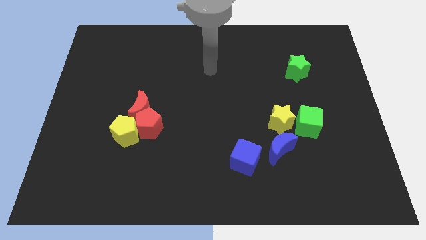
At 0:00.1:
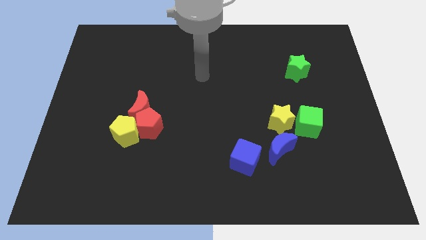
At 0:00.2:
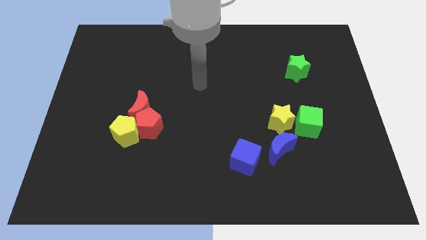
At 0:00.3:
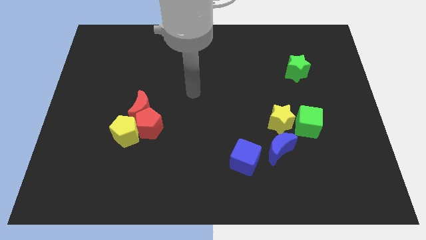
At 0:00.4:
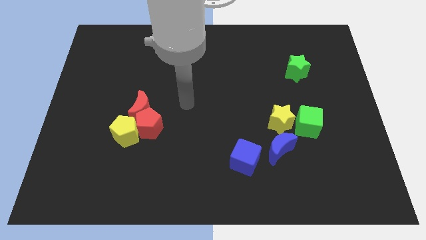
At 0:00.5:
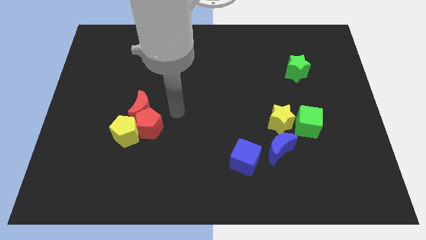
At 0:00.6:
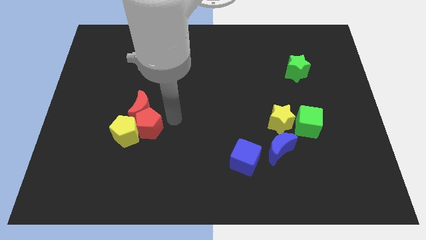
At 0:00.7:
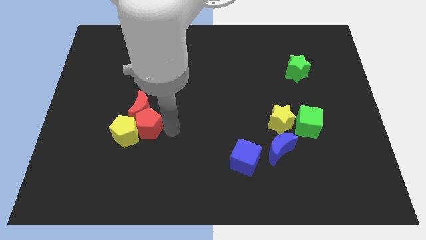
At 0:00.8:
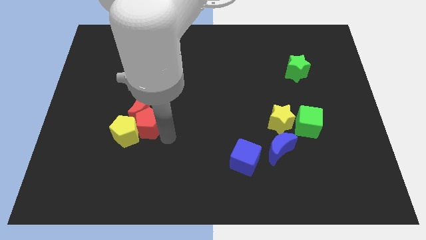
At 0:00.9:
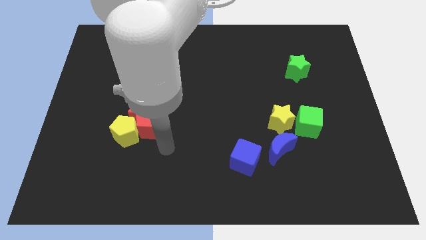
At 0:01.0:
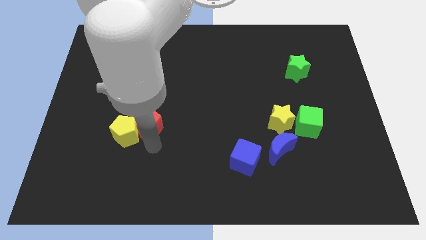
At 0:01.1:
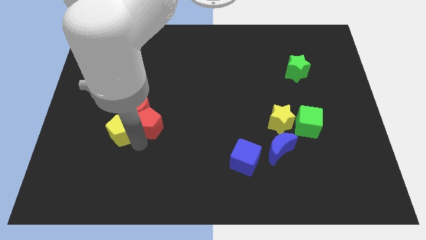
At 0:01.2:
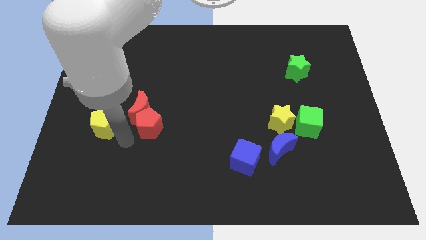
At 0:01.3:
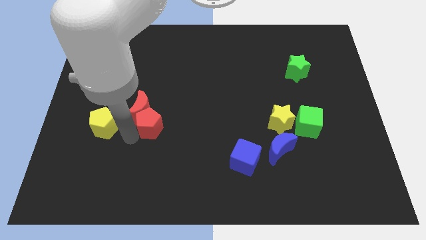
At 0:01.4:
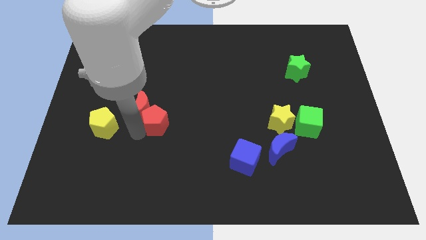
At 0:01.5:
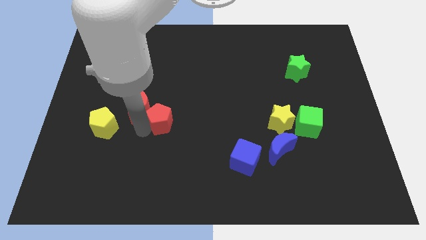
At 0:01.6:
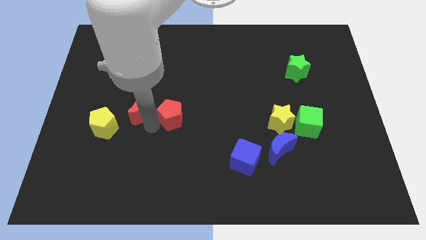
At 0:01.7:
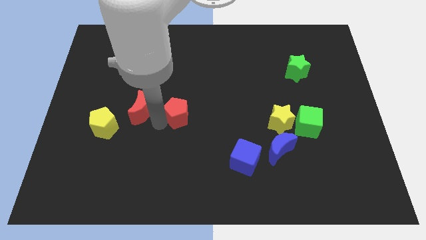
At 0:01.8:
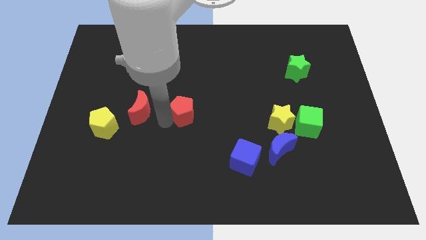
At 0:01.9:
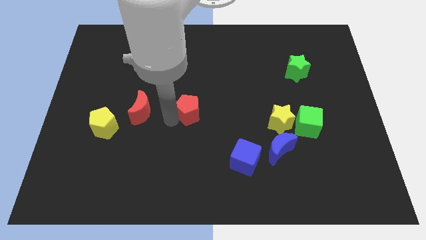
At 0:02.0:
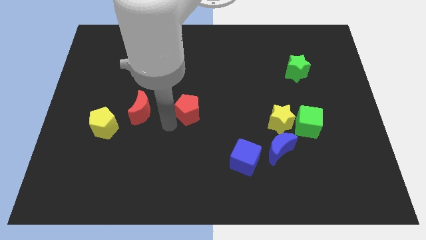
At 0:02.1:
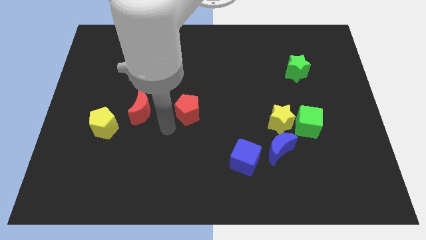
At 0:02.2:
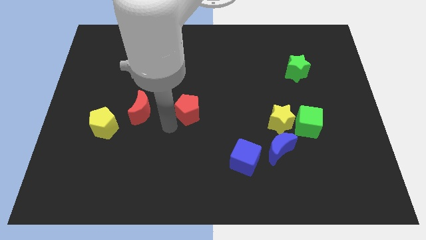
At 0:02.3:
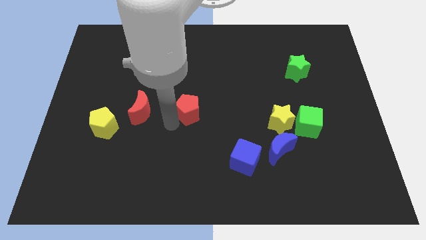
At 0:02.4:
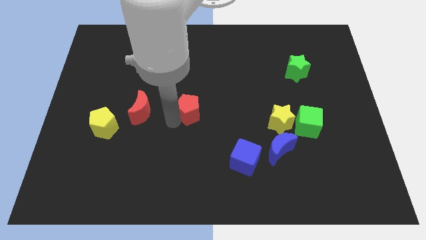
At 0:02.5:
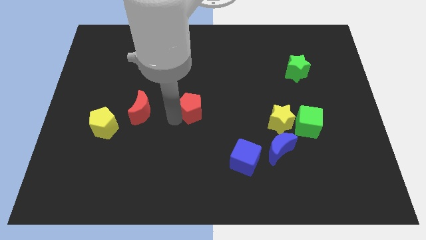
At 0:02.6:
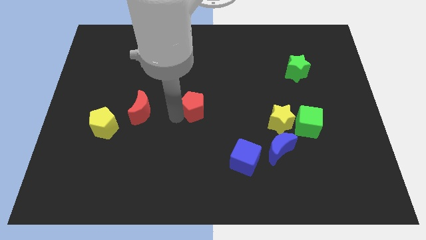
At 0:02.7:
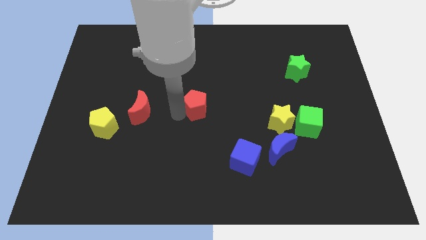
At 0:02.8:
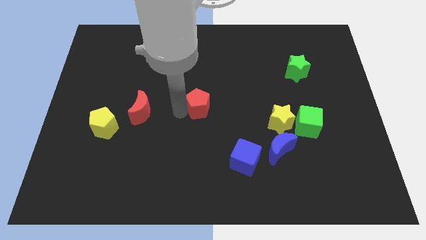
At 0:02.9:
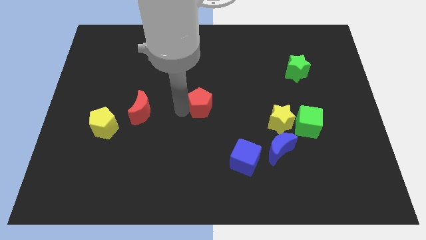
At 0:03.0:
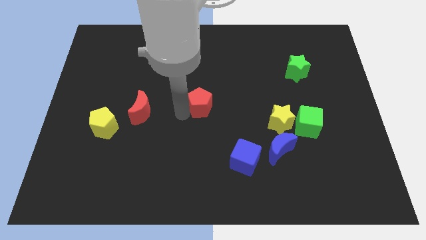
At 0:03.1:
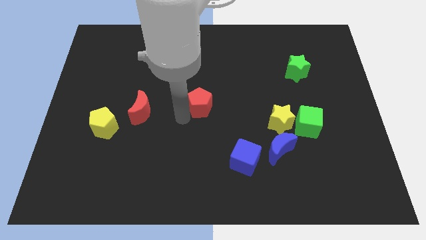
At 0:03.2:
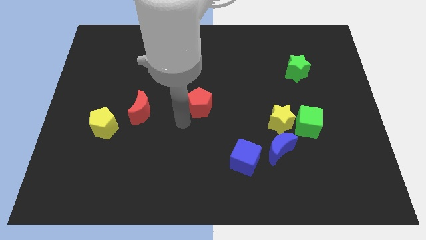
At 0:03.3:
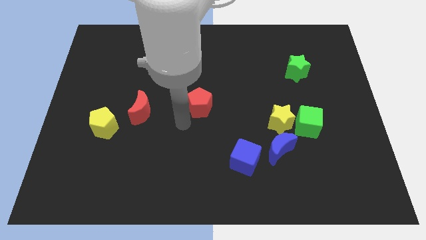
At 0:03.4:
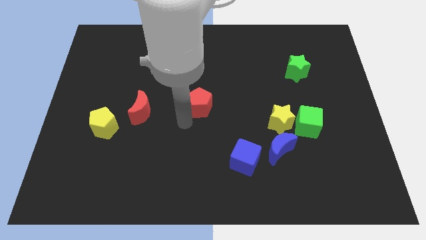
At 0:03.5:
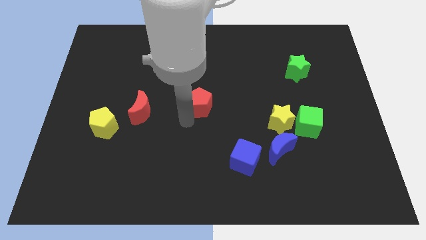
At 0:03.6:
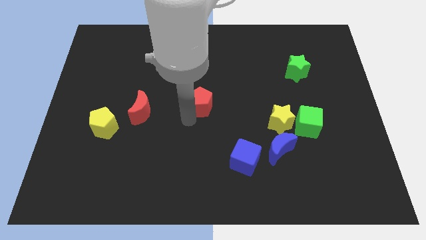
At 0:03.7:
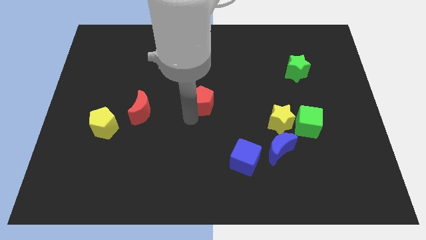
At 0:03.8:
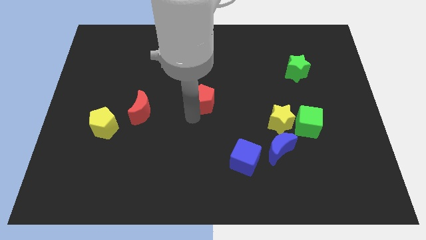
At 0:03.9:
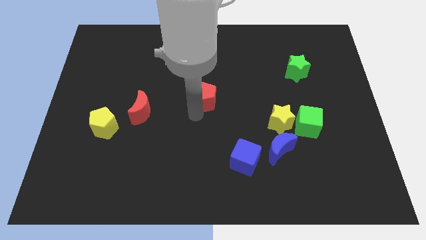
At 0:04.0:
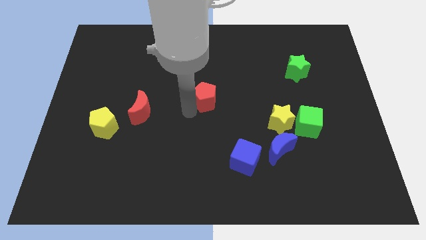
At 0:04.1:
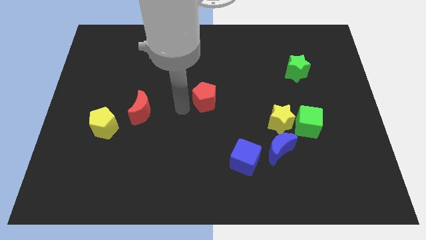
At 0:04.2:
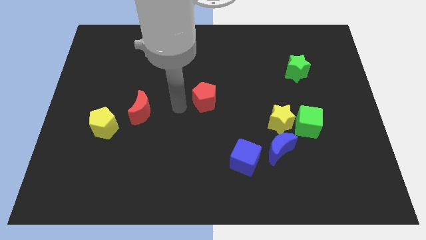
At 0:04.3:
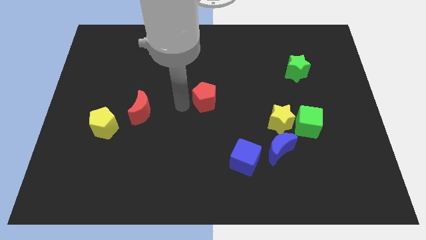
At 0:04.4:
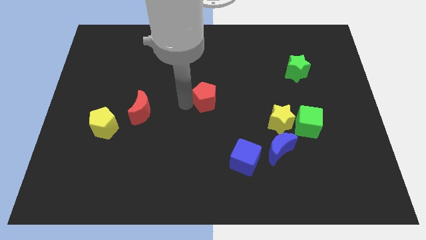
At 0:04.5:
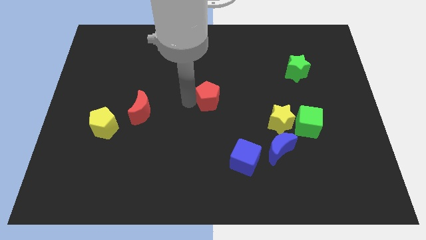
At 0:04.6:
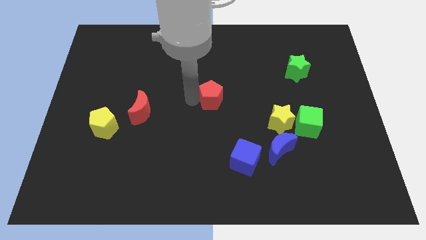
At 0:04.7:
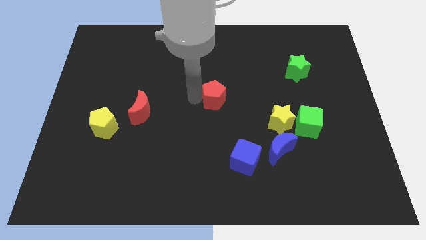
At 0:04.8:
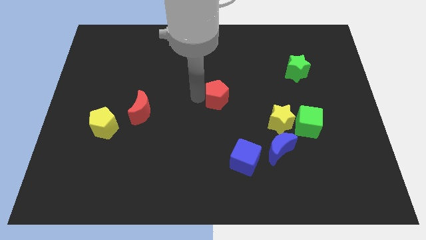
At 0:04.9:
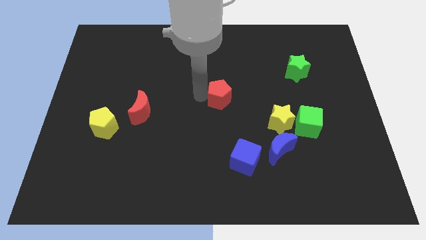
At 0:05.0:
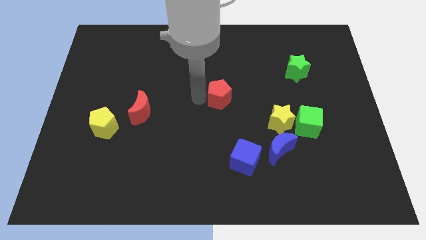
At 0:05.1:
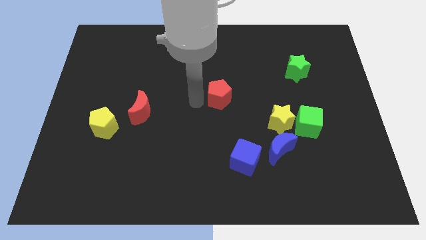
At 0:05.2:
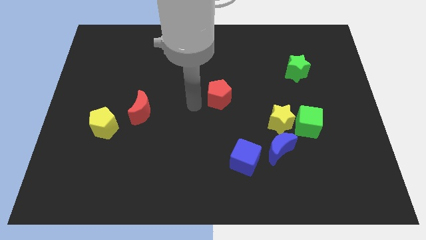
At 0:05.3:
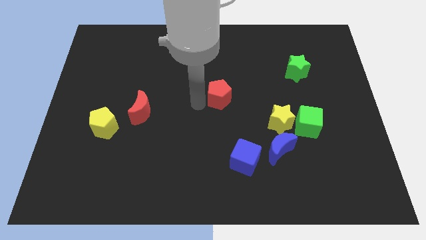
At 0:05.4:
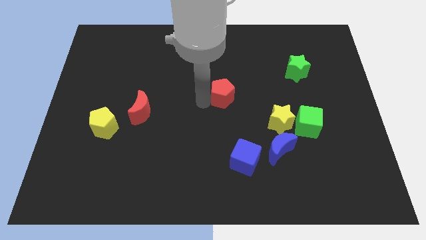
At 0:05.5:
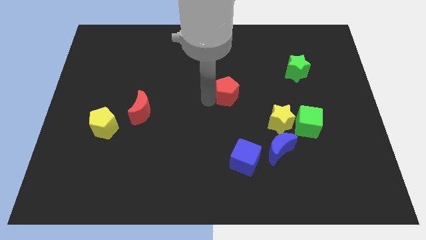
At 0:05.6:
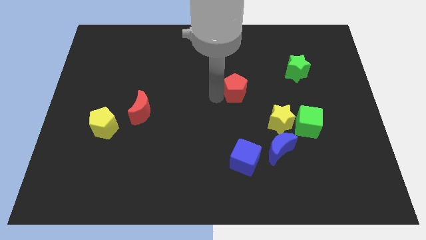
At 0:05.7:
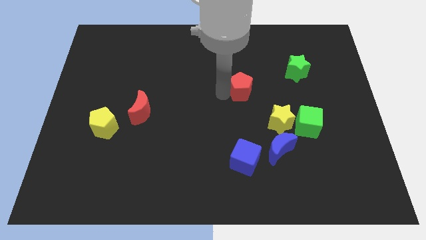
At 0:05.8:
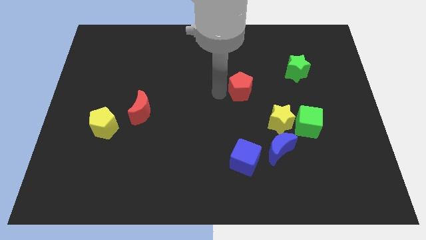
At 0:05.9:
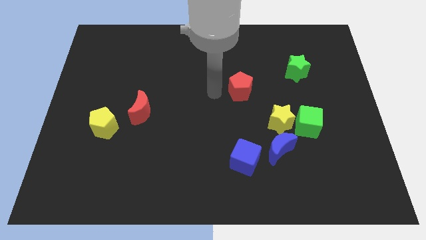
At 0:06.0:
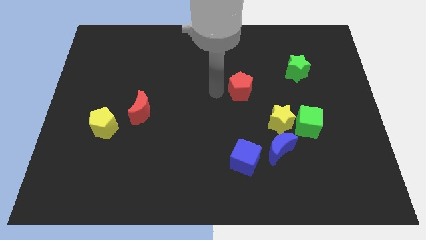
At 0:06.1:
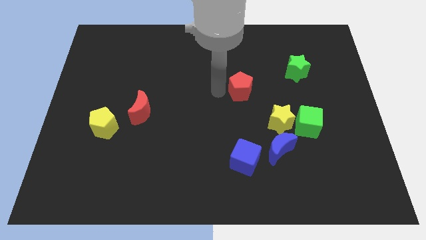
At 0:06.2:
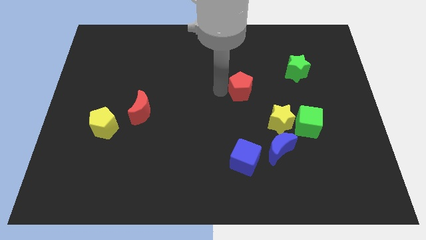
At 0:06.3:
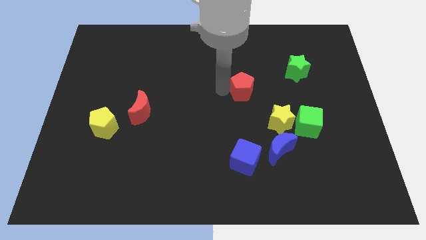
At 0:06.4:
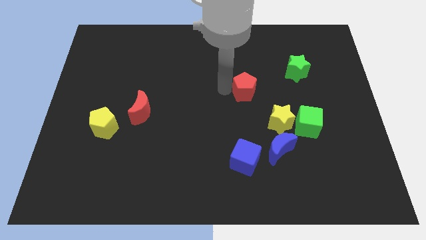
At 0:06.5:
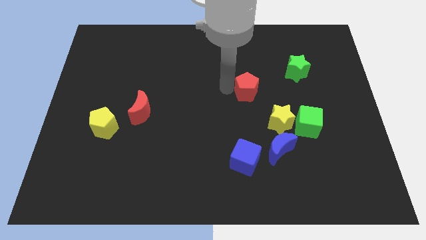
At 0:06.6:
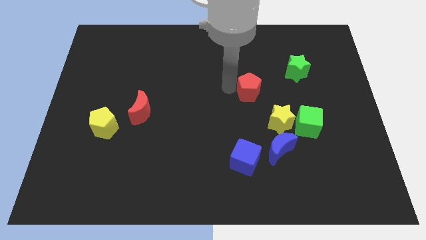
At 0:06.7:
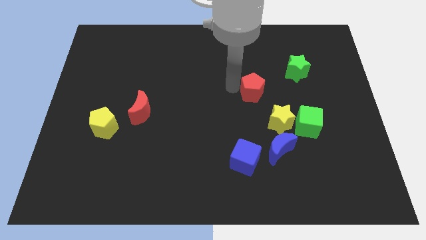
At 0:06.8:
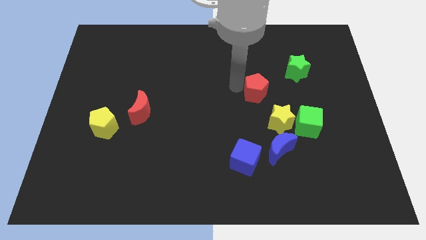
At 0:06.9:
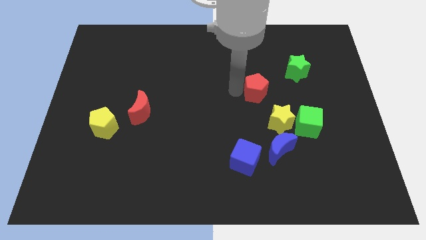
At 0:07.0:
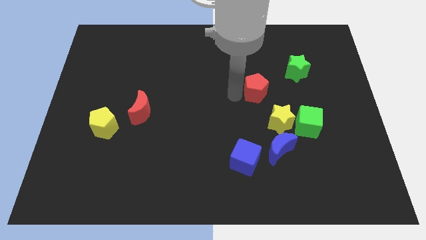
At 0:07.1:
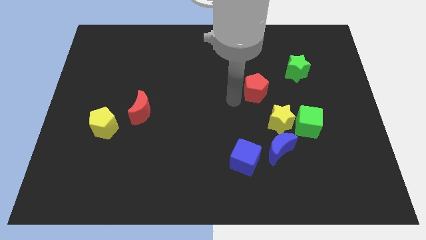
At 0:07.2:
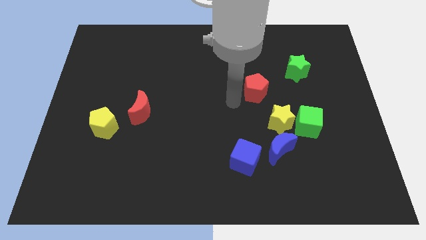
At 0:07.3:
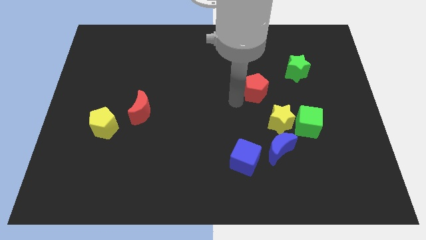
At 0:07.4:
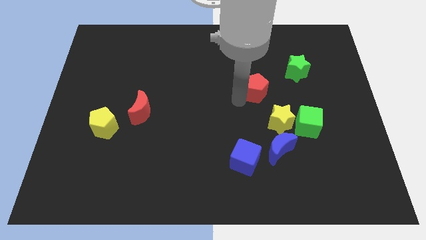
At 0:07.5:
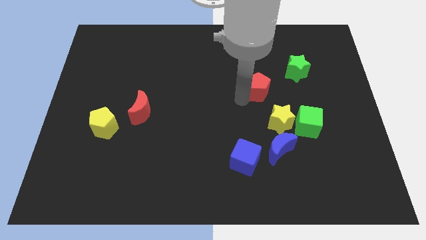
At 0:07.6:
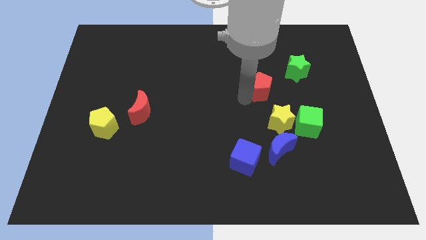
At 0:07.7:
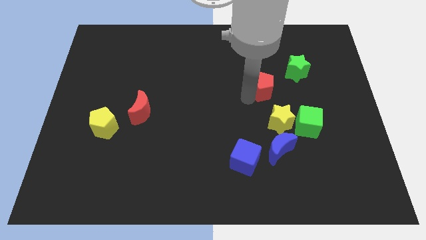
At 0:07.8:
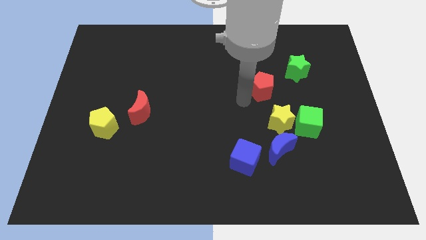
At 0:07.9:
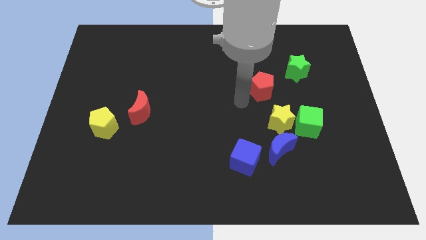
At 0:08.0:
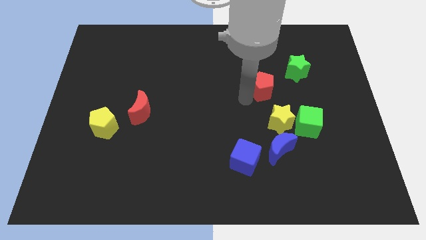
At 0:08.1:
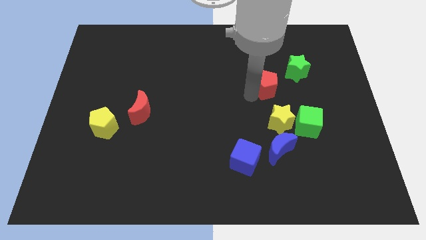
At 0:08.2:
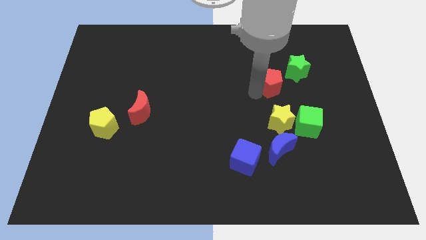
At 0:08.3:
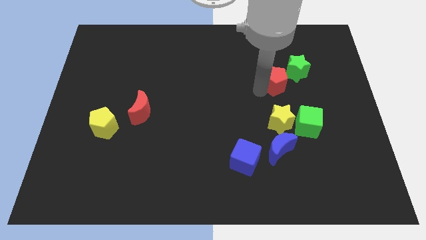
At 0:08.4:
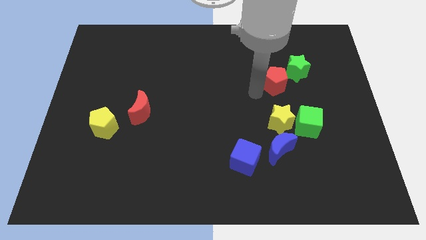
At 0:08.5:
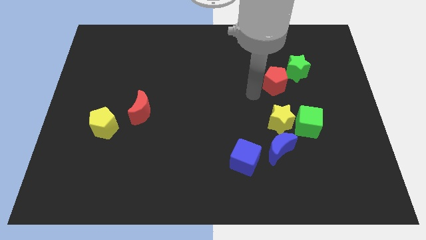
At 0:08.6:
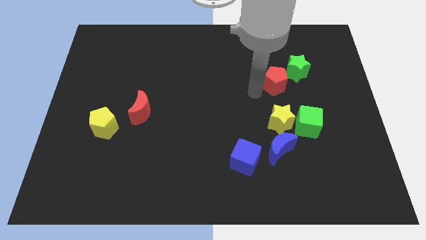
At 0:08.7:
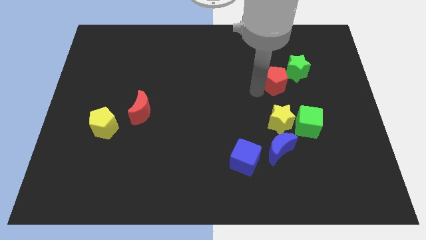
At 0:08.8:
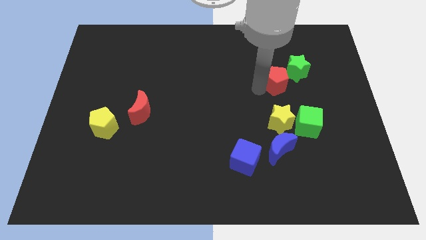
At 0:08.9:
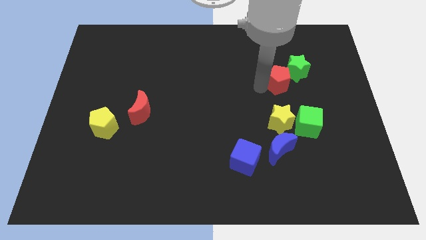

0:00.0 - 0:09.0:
put the red pentagon to the green star
